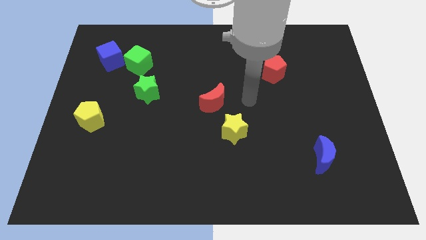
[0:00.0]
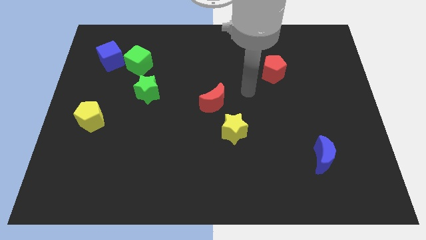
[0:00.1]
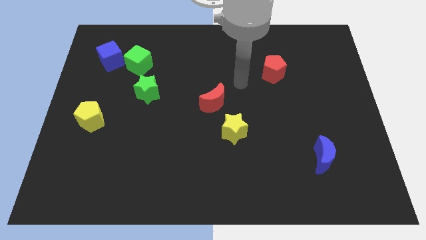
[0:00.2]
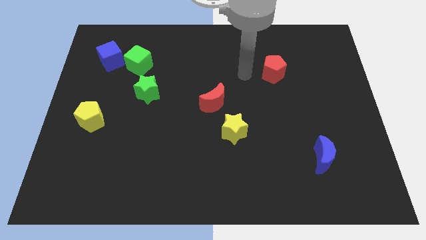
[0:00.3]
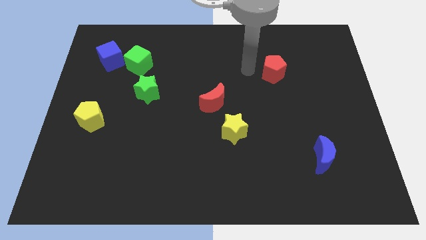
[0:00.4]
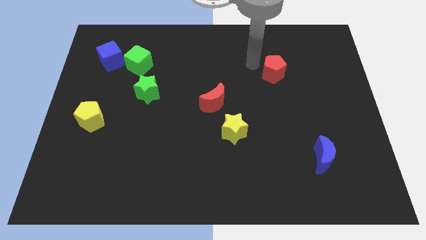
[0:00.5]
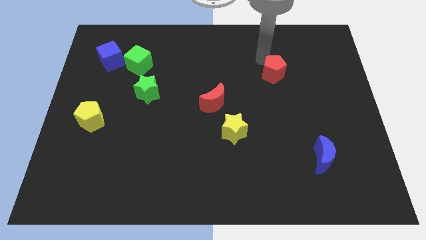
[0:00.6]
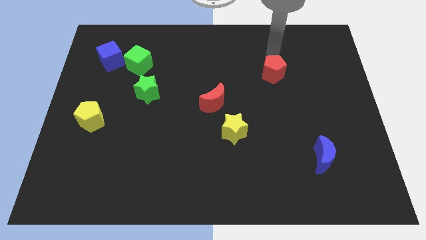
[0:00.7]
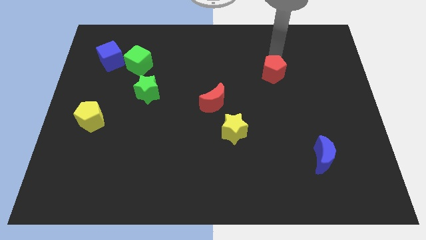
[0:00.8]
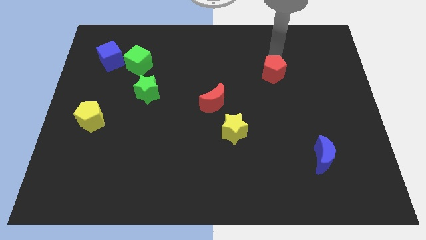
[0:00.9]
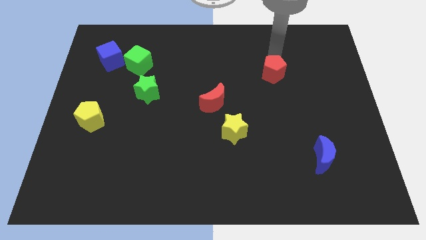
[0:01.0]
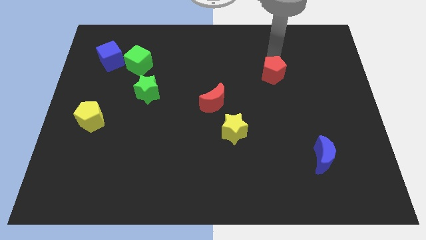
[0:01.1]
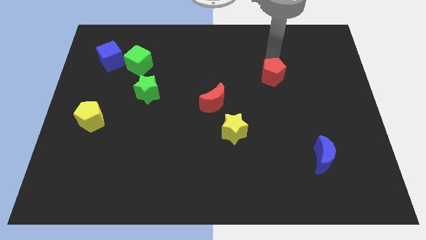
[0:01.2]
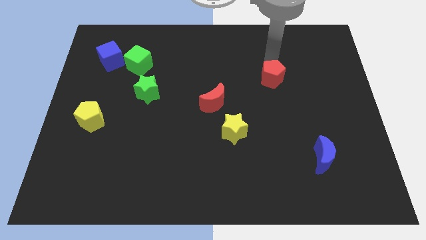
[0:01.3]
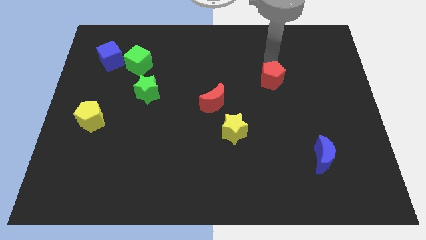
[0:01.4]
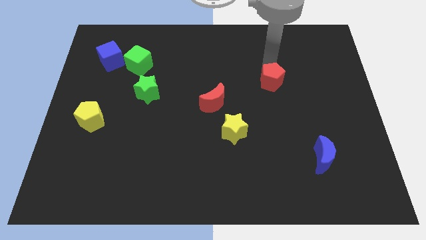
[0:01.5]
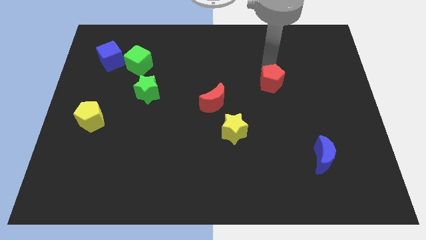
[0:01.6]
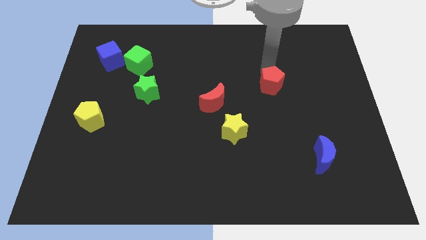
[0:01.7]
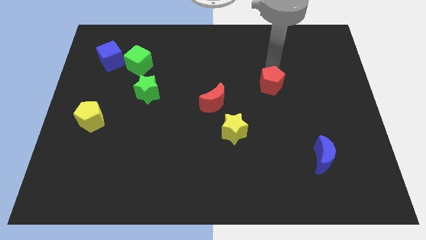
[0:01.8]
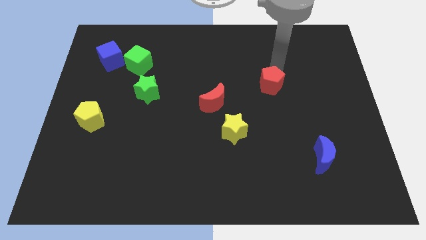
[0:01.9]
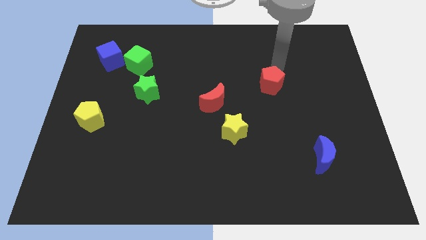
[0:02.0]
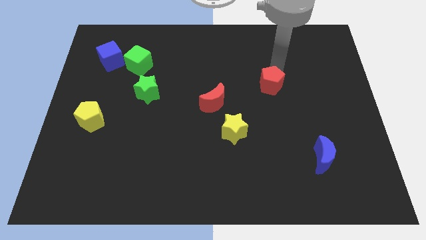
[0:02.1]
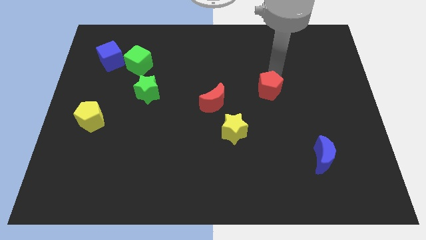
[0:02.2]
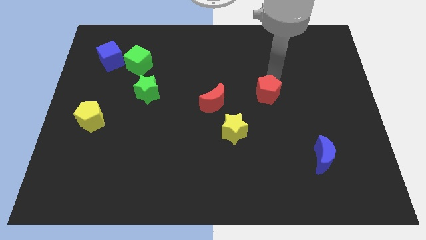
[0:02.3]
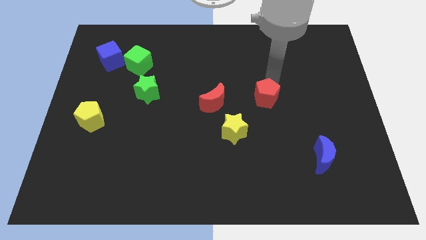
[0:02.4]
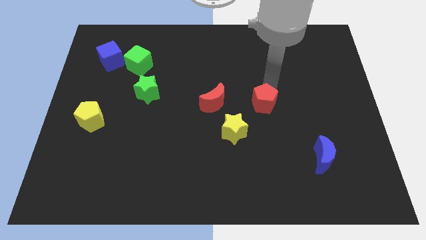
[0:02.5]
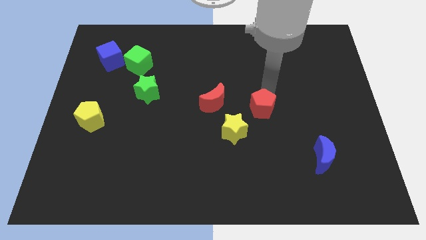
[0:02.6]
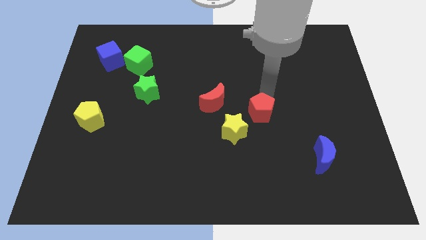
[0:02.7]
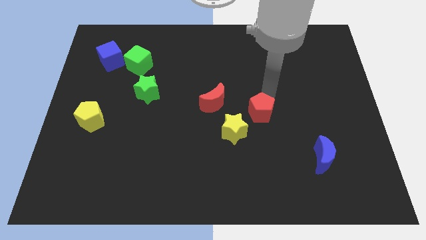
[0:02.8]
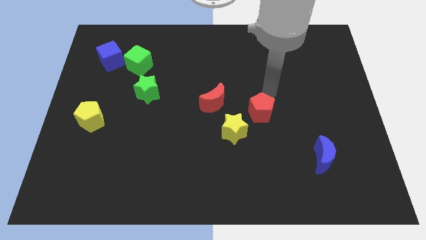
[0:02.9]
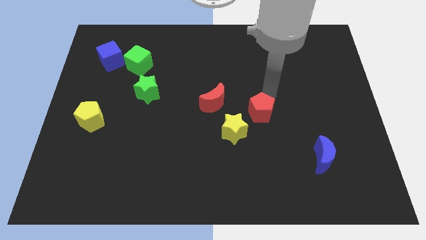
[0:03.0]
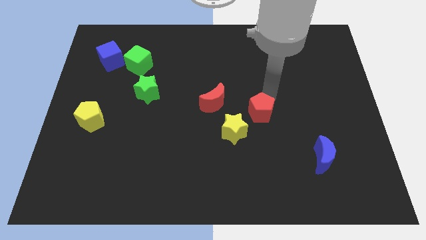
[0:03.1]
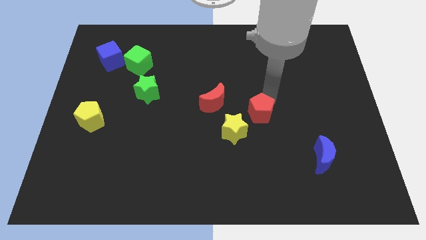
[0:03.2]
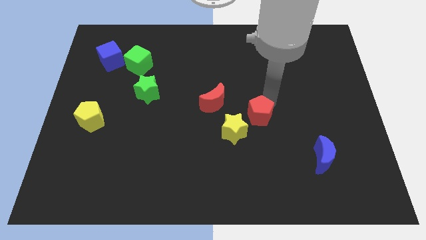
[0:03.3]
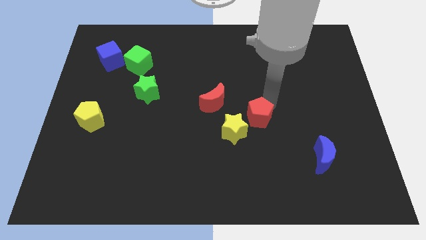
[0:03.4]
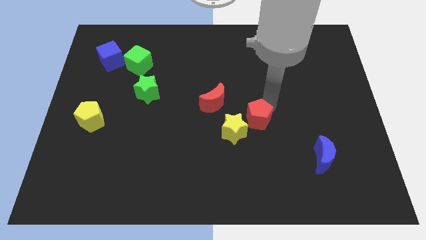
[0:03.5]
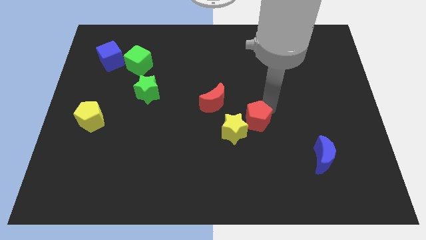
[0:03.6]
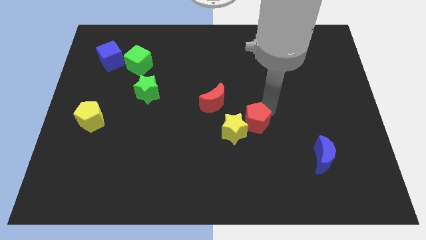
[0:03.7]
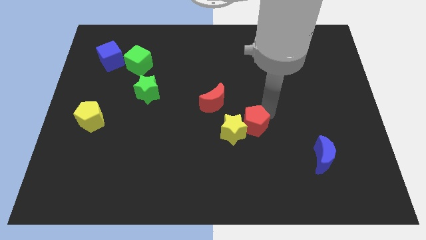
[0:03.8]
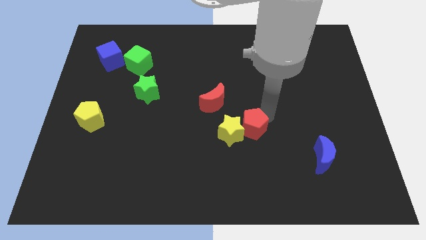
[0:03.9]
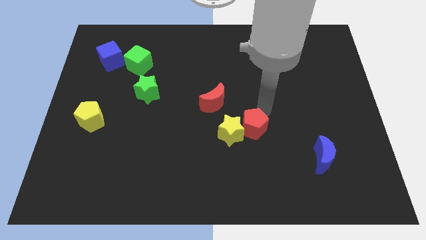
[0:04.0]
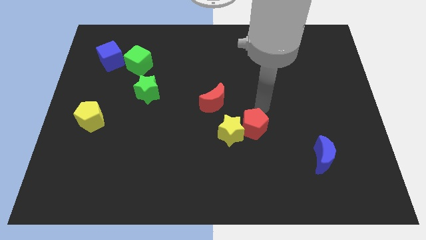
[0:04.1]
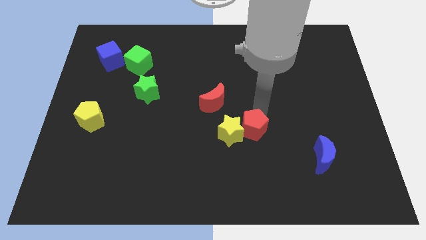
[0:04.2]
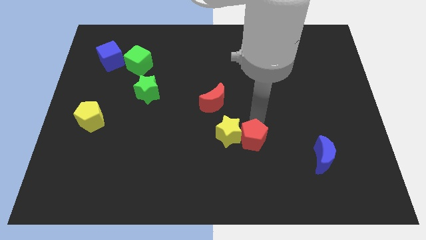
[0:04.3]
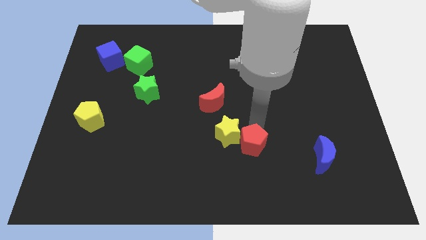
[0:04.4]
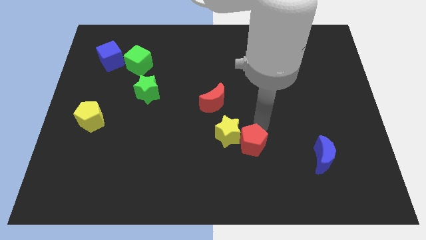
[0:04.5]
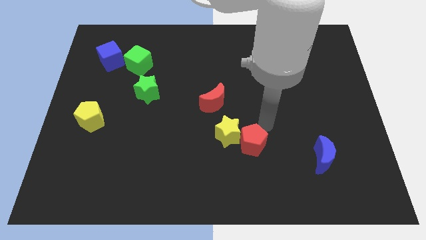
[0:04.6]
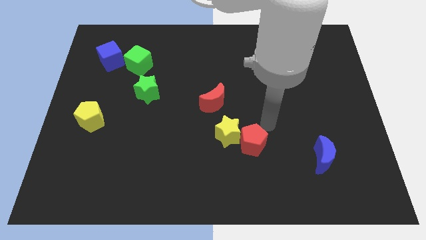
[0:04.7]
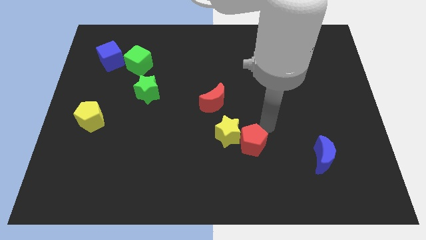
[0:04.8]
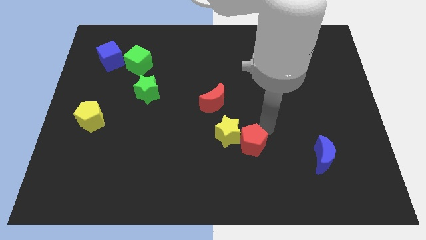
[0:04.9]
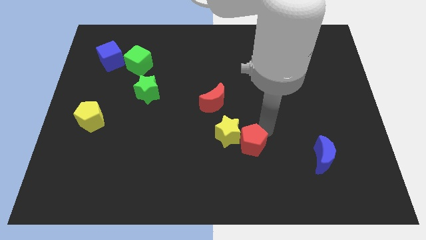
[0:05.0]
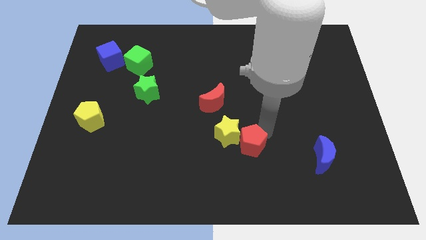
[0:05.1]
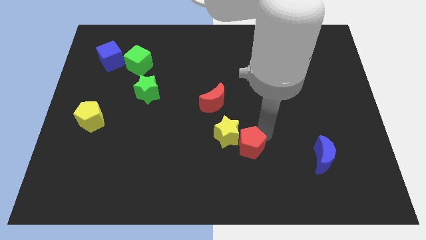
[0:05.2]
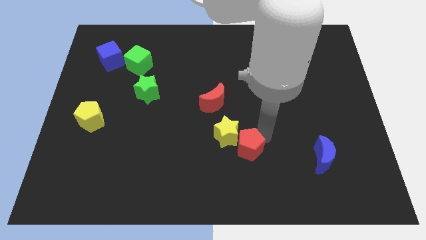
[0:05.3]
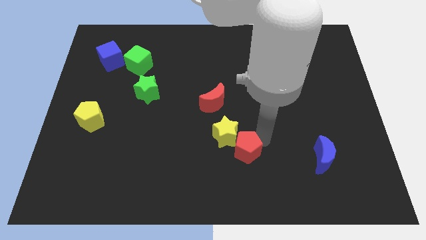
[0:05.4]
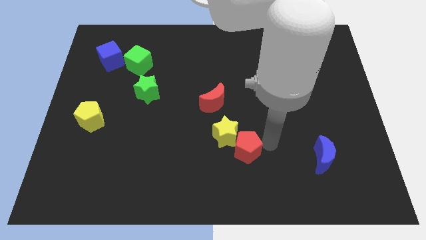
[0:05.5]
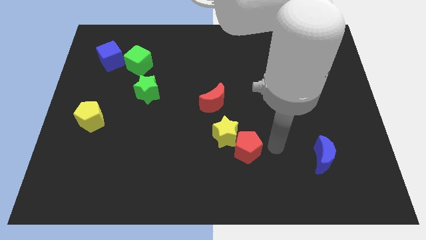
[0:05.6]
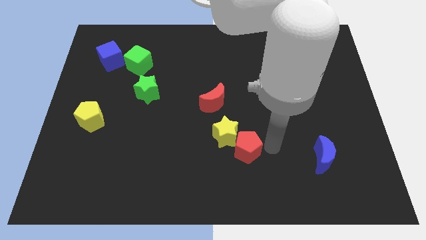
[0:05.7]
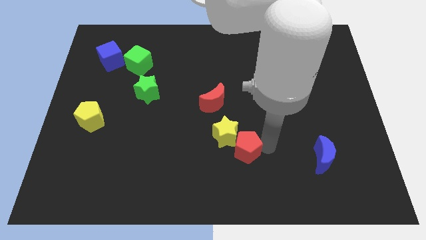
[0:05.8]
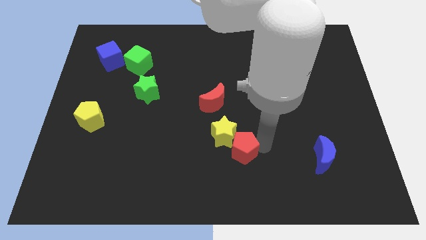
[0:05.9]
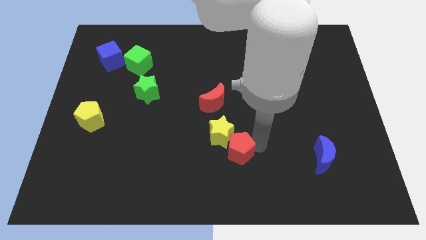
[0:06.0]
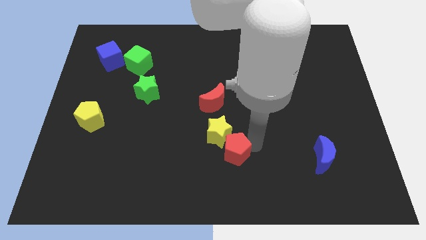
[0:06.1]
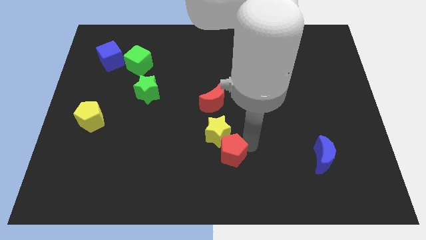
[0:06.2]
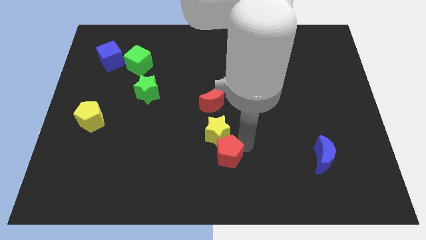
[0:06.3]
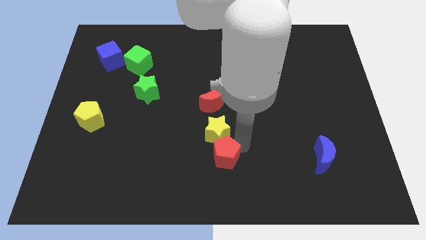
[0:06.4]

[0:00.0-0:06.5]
move the red pentagon to the bottom left of the yellow star
